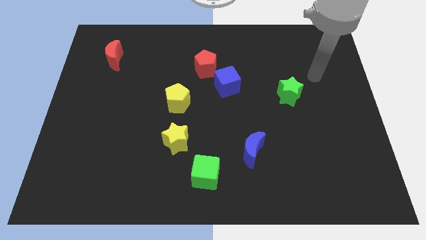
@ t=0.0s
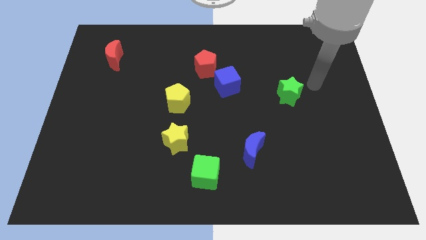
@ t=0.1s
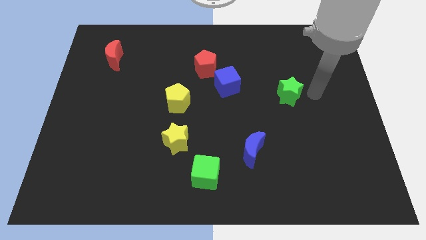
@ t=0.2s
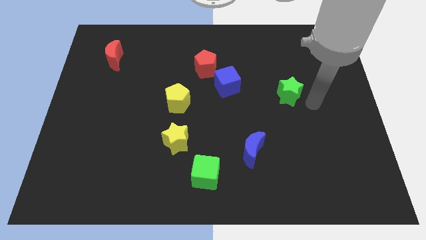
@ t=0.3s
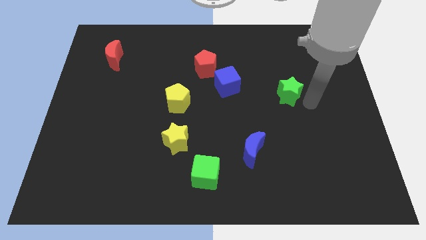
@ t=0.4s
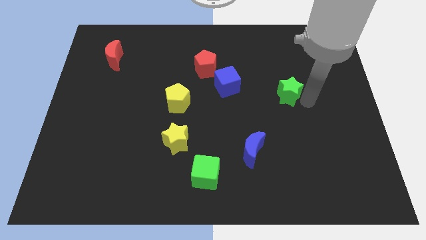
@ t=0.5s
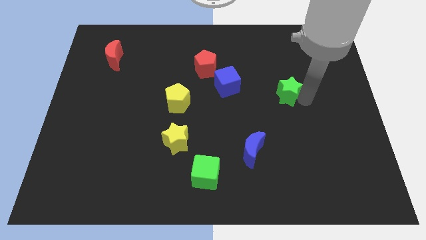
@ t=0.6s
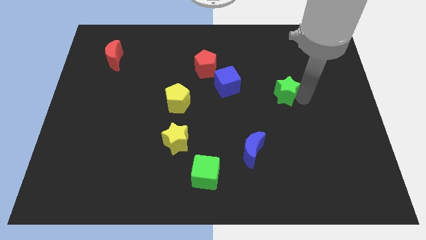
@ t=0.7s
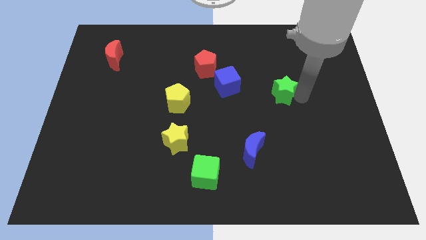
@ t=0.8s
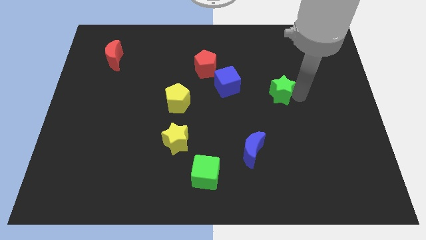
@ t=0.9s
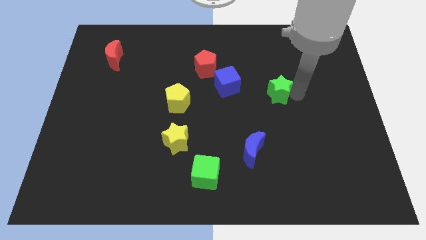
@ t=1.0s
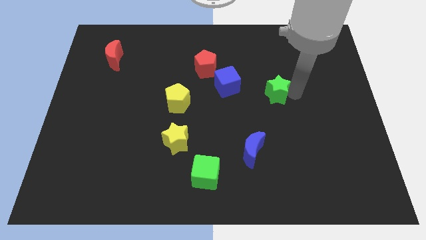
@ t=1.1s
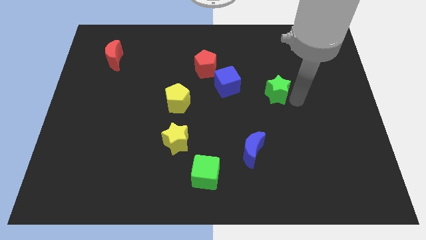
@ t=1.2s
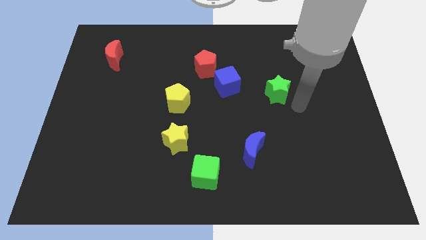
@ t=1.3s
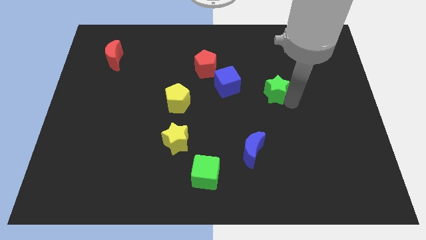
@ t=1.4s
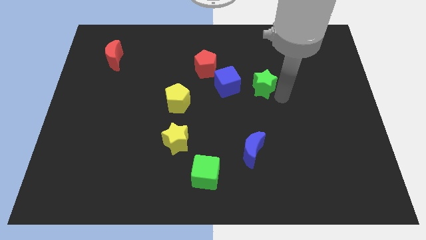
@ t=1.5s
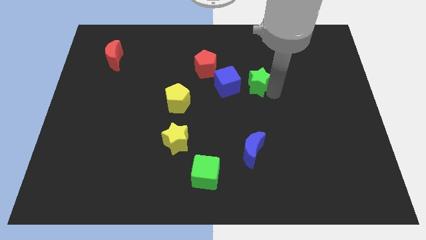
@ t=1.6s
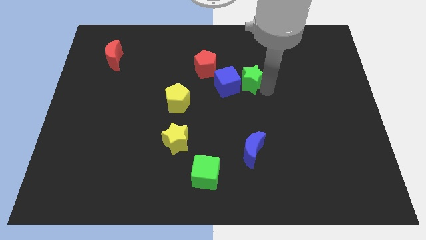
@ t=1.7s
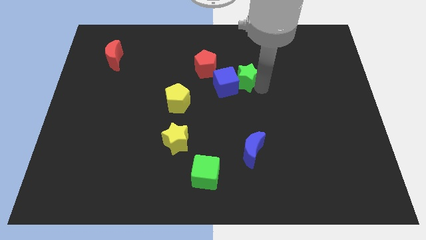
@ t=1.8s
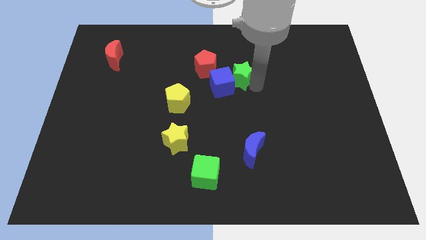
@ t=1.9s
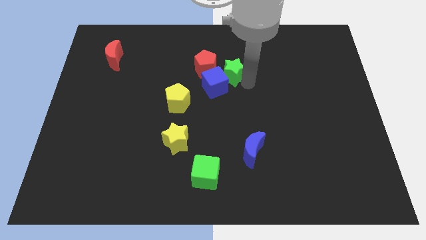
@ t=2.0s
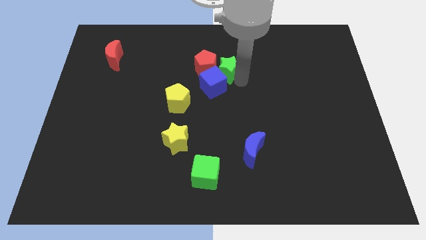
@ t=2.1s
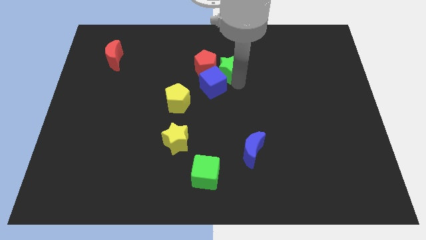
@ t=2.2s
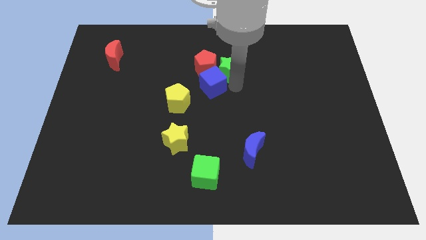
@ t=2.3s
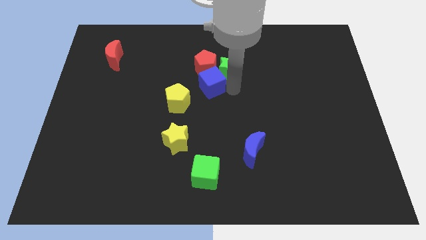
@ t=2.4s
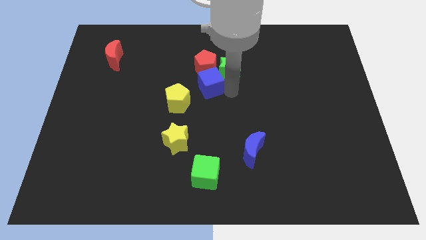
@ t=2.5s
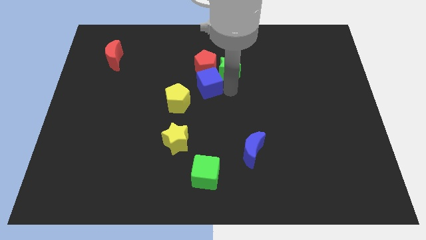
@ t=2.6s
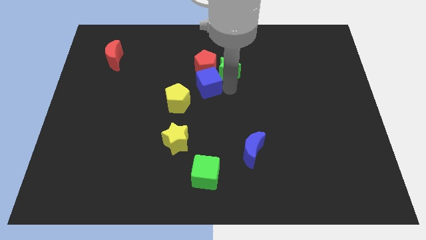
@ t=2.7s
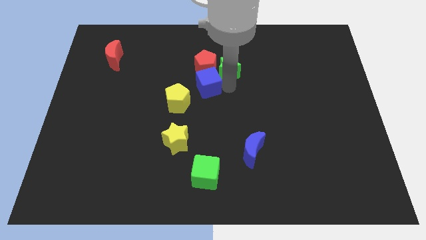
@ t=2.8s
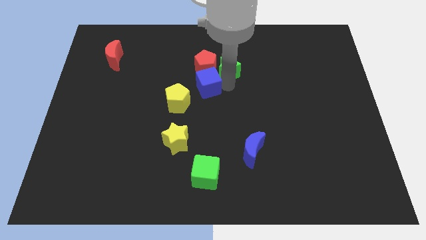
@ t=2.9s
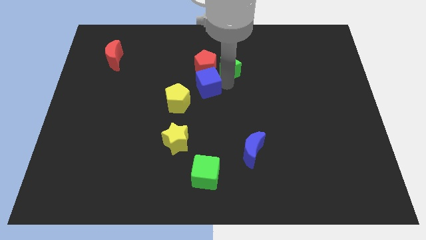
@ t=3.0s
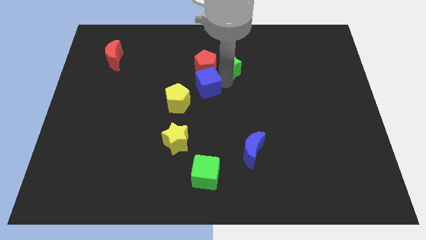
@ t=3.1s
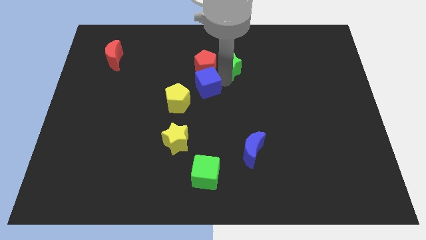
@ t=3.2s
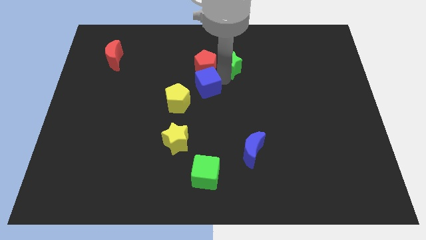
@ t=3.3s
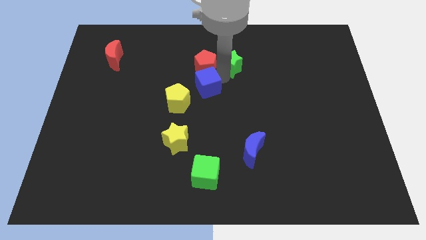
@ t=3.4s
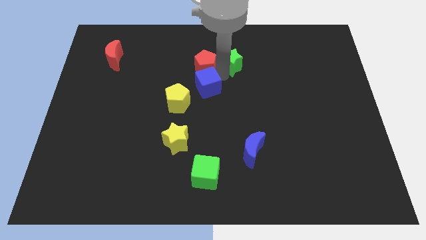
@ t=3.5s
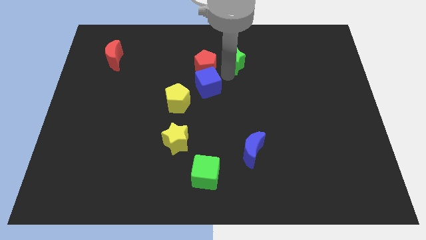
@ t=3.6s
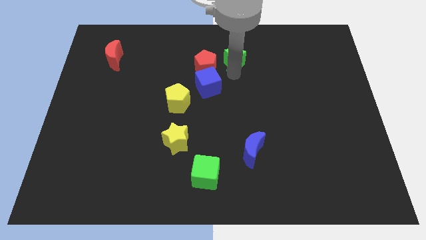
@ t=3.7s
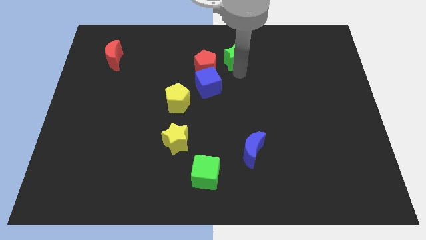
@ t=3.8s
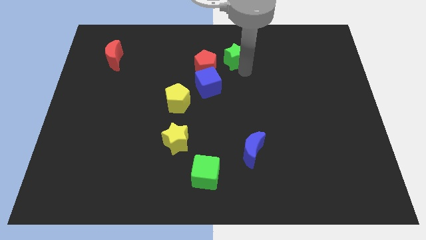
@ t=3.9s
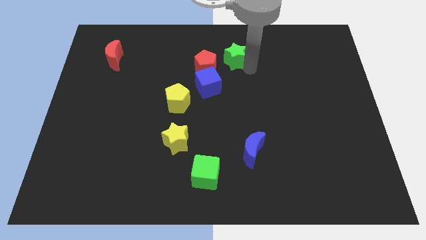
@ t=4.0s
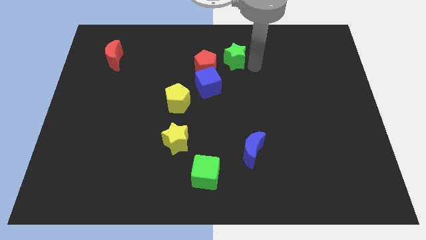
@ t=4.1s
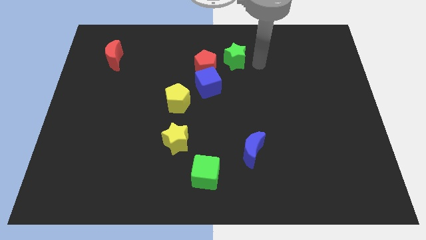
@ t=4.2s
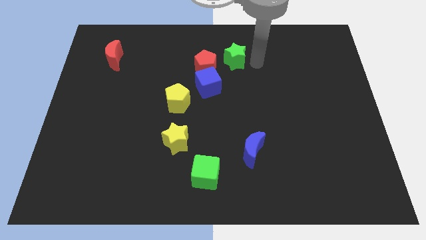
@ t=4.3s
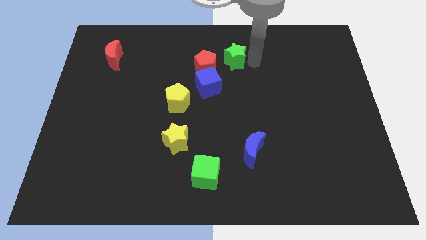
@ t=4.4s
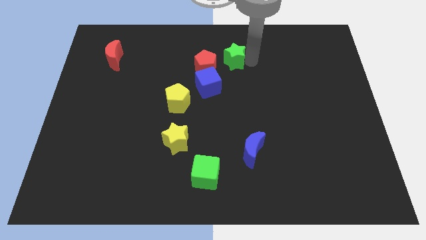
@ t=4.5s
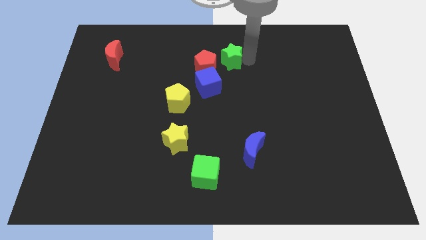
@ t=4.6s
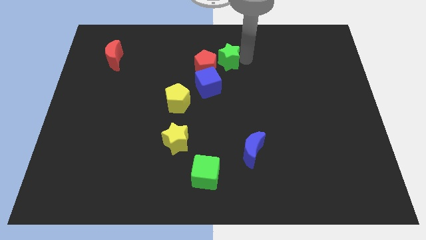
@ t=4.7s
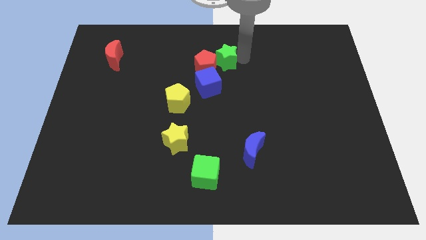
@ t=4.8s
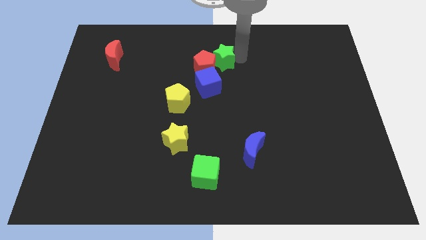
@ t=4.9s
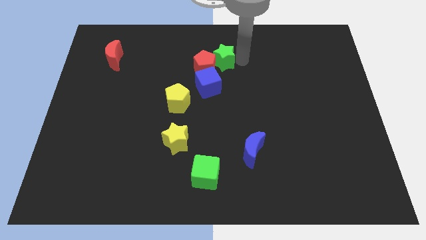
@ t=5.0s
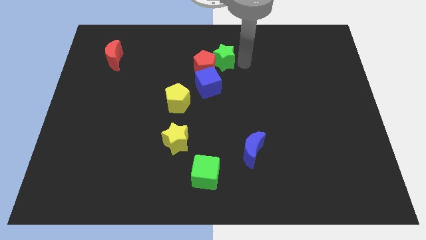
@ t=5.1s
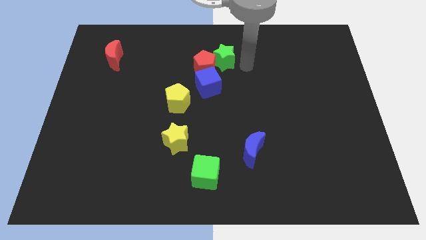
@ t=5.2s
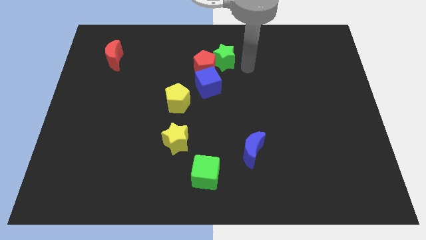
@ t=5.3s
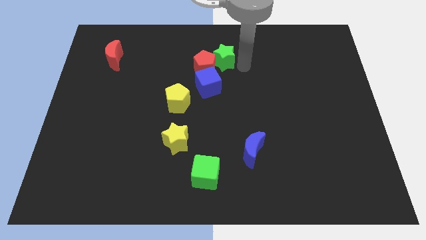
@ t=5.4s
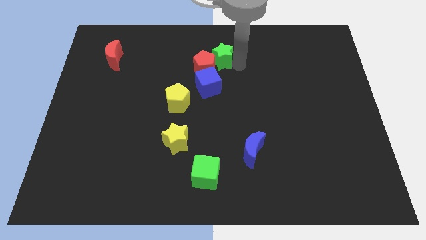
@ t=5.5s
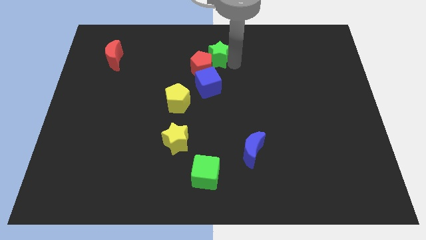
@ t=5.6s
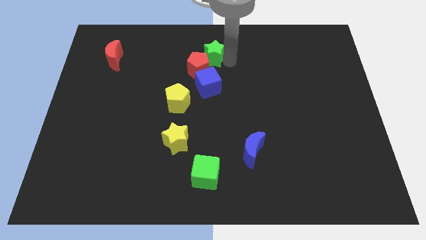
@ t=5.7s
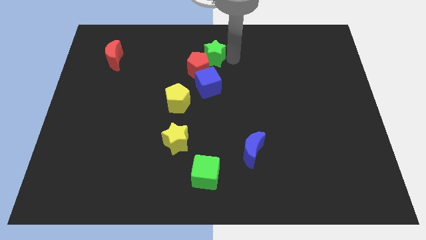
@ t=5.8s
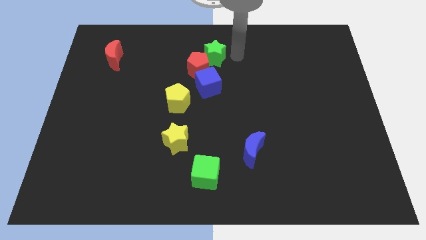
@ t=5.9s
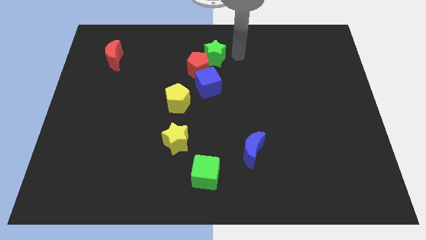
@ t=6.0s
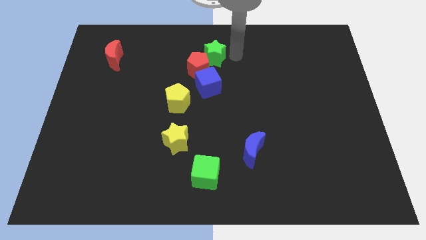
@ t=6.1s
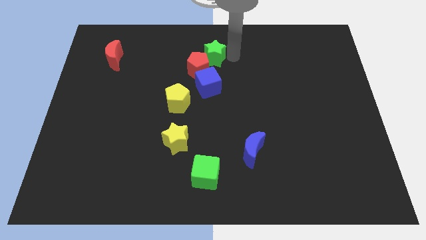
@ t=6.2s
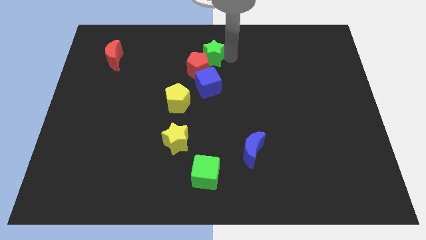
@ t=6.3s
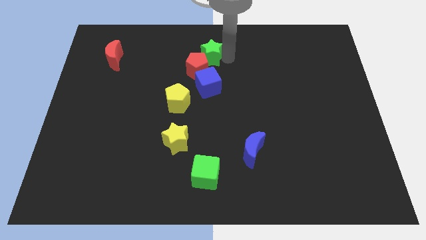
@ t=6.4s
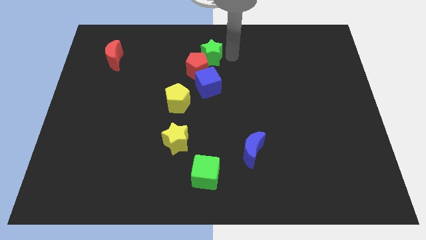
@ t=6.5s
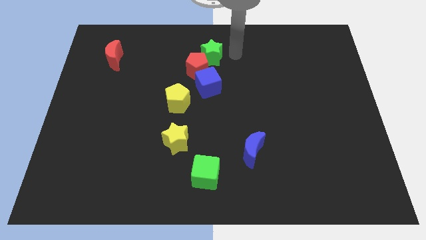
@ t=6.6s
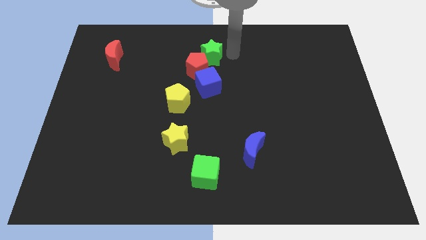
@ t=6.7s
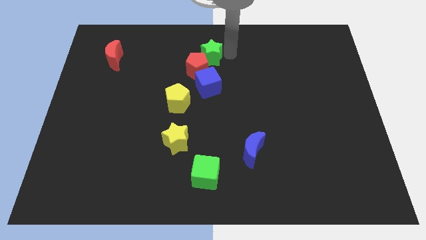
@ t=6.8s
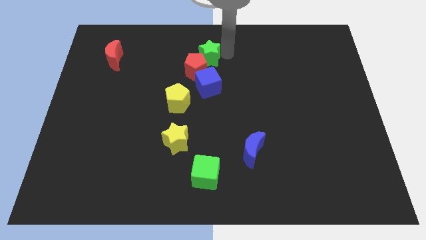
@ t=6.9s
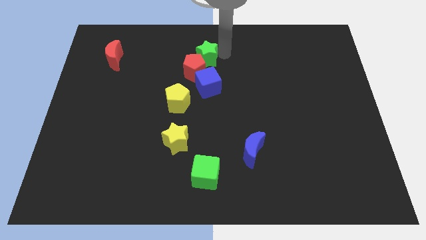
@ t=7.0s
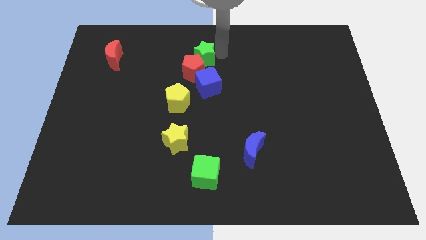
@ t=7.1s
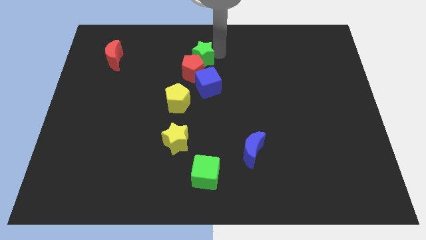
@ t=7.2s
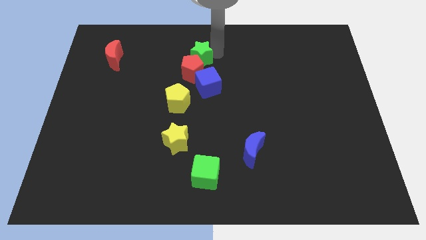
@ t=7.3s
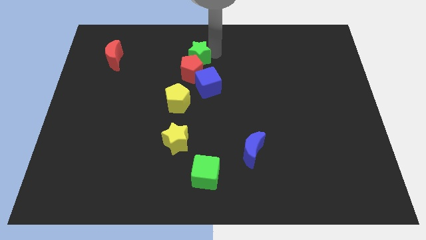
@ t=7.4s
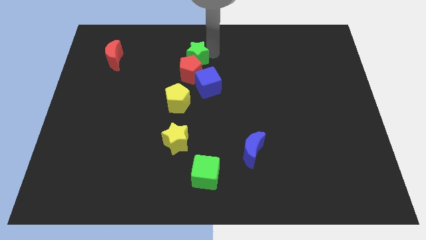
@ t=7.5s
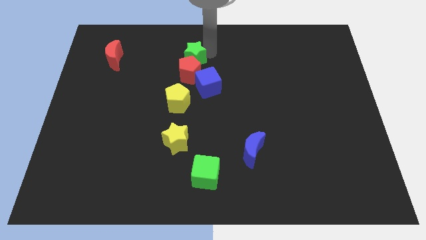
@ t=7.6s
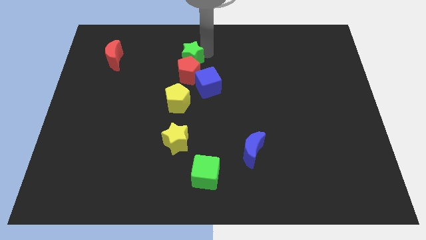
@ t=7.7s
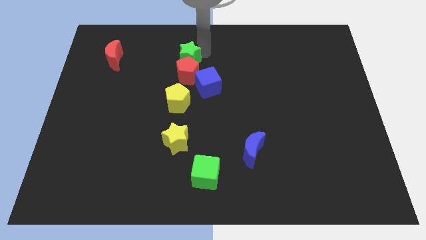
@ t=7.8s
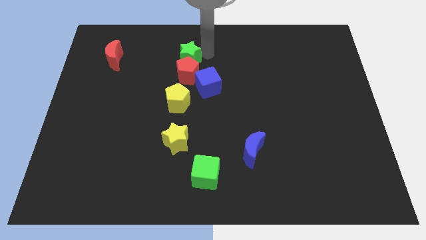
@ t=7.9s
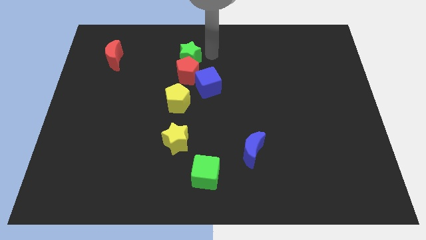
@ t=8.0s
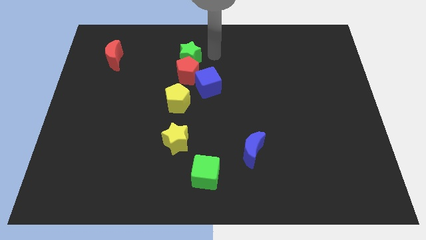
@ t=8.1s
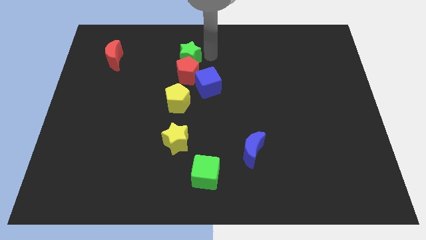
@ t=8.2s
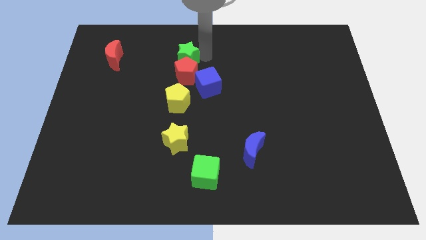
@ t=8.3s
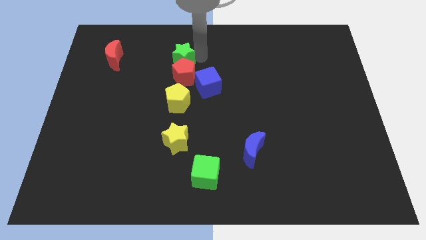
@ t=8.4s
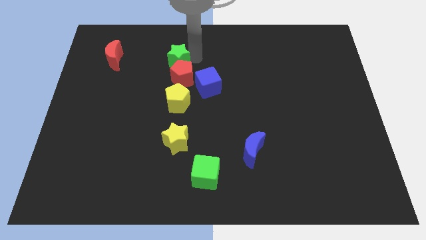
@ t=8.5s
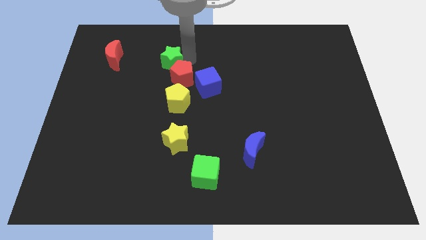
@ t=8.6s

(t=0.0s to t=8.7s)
push the green star to the right side of the red moon
